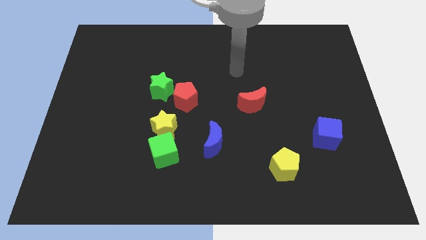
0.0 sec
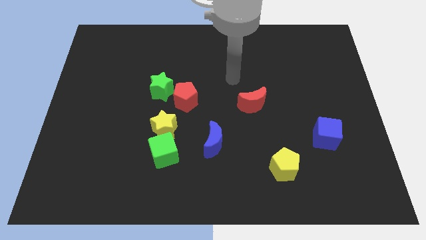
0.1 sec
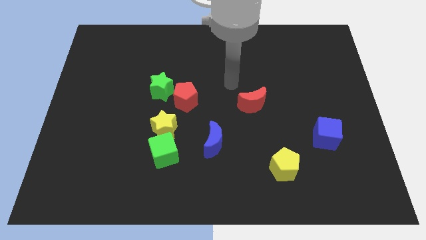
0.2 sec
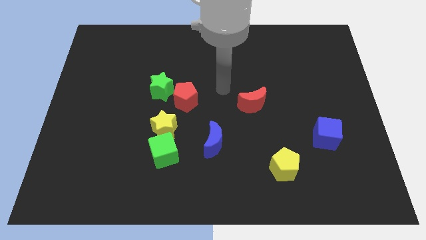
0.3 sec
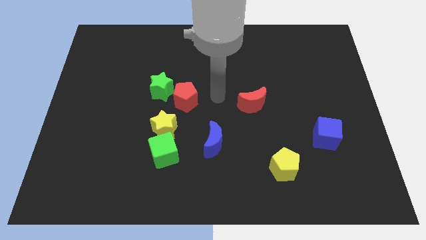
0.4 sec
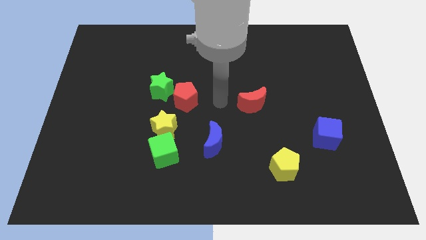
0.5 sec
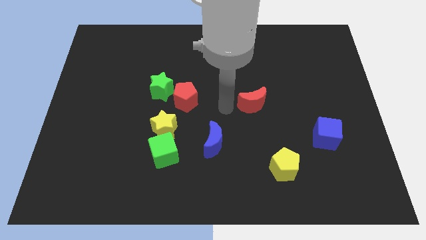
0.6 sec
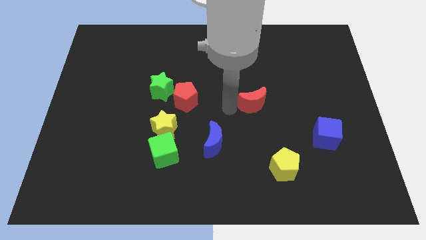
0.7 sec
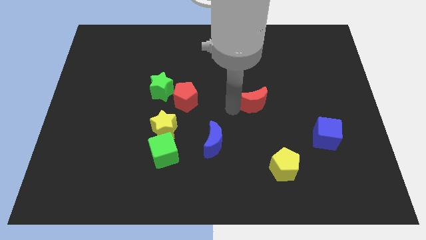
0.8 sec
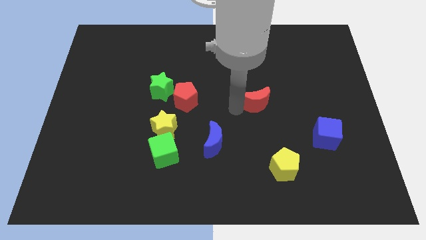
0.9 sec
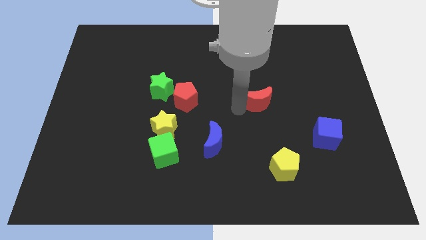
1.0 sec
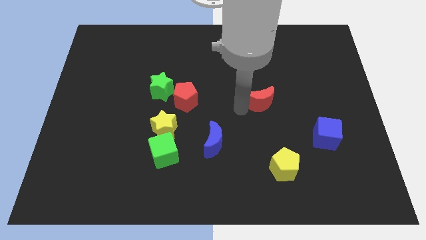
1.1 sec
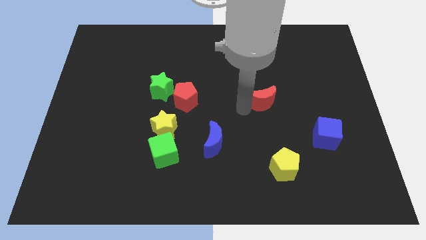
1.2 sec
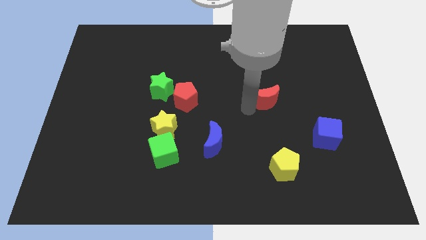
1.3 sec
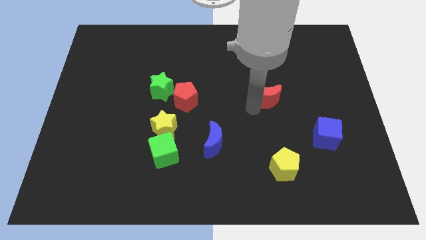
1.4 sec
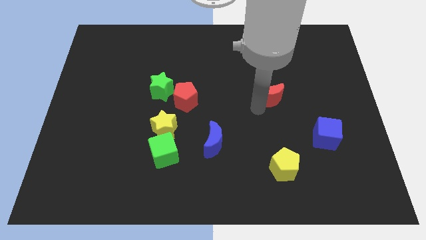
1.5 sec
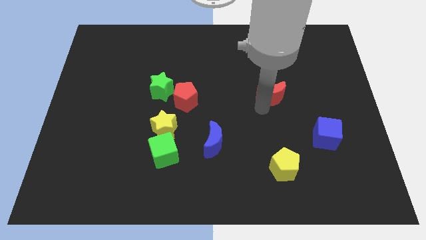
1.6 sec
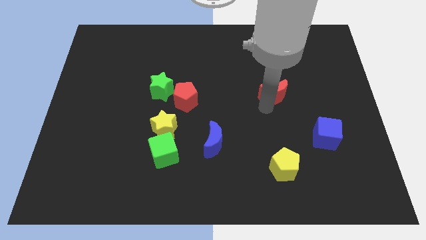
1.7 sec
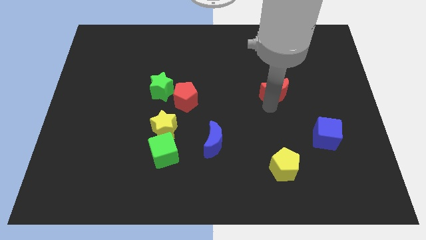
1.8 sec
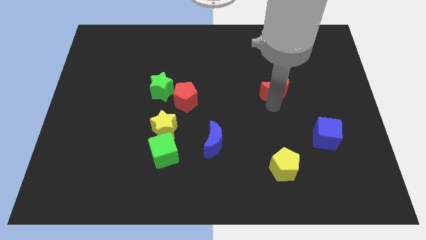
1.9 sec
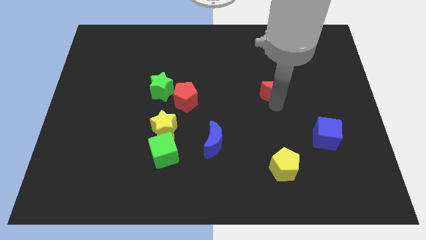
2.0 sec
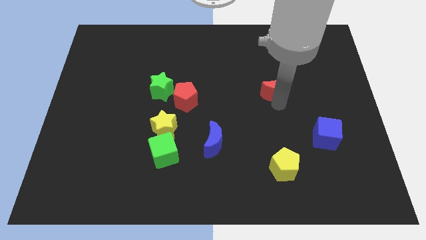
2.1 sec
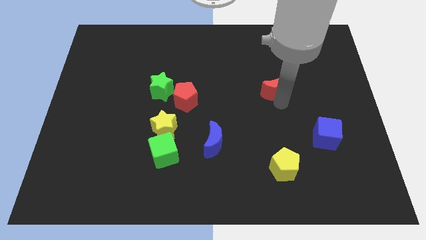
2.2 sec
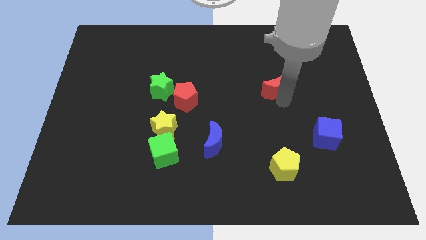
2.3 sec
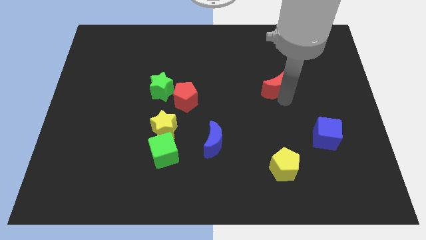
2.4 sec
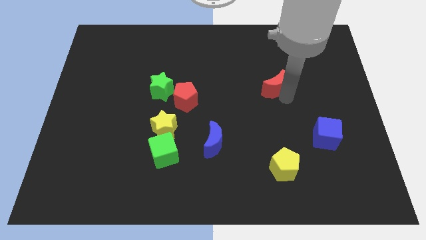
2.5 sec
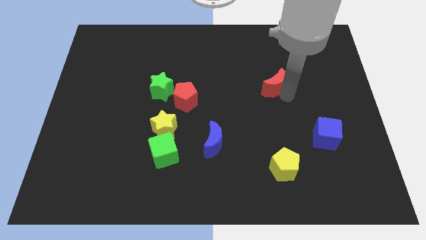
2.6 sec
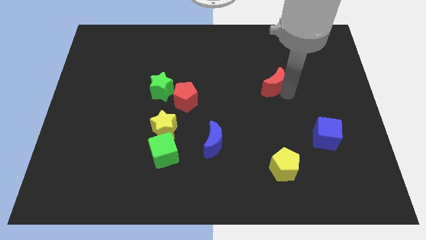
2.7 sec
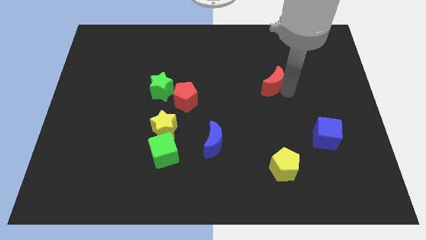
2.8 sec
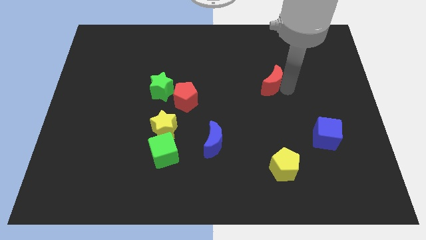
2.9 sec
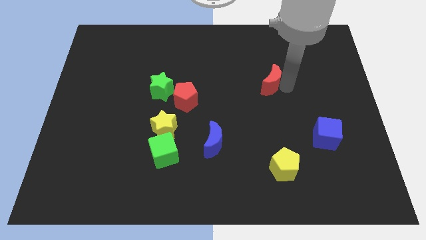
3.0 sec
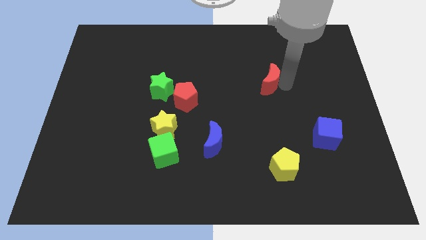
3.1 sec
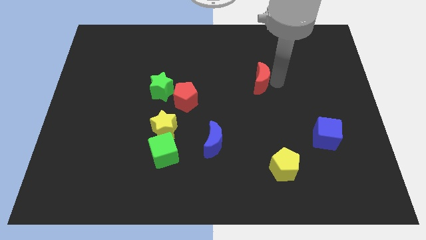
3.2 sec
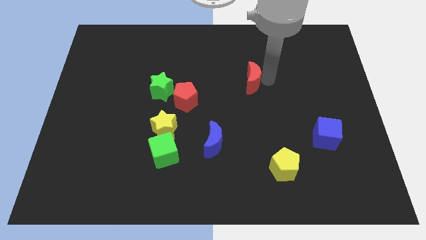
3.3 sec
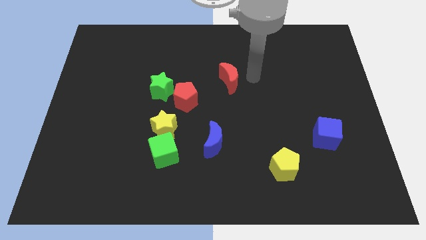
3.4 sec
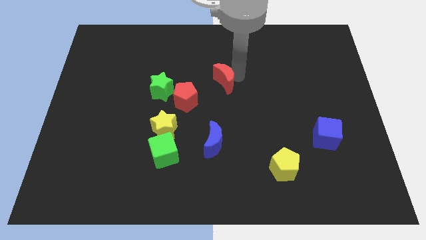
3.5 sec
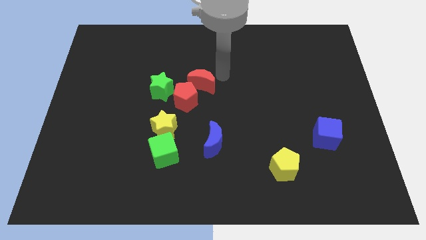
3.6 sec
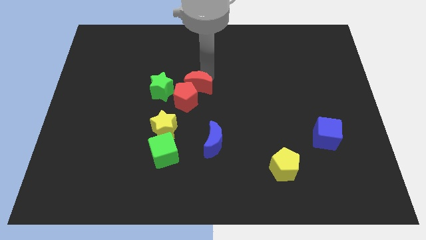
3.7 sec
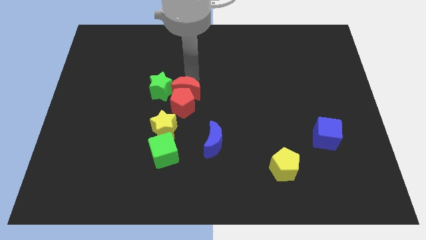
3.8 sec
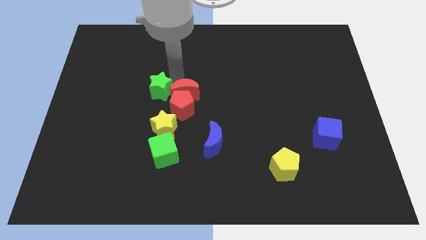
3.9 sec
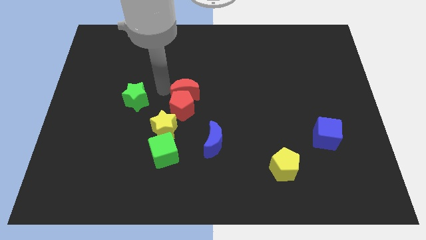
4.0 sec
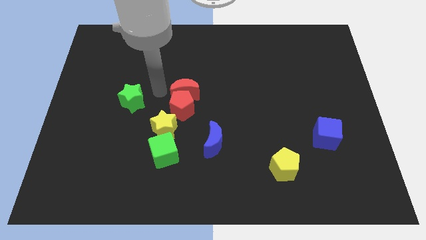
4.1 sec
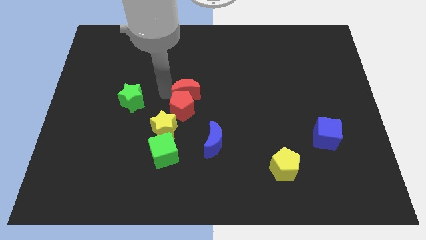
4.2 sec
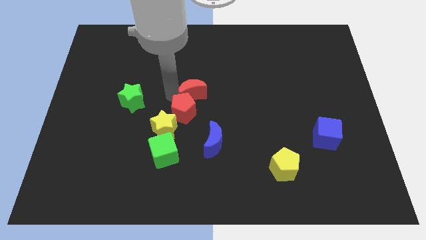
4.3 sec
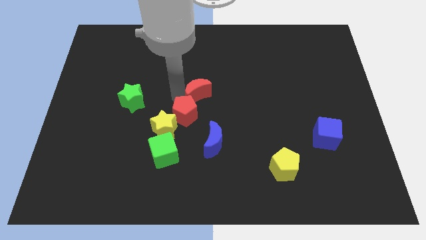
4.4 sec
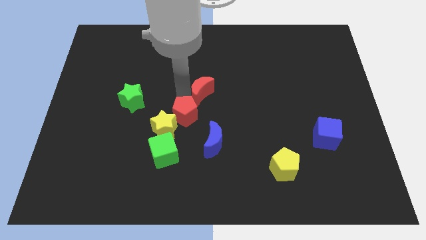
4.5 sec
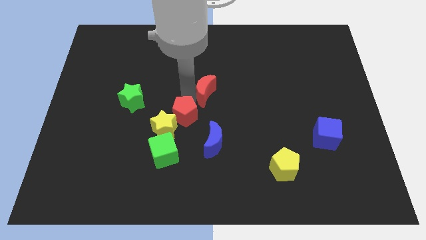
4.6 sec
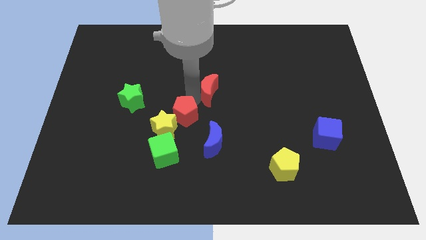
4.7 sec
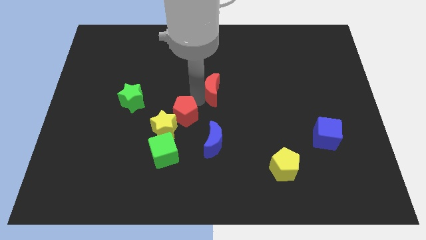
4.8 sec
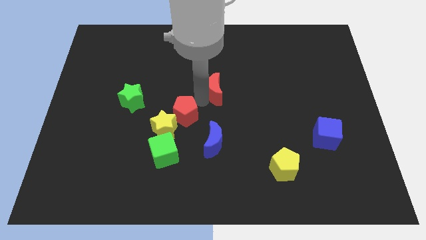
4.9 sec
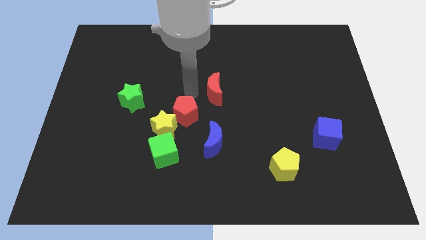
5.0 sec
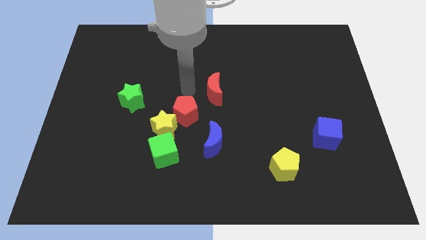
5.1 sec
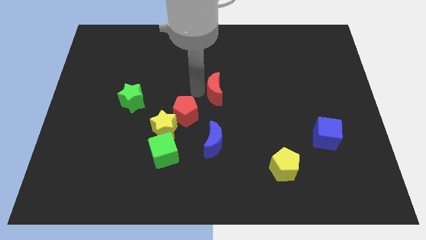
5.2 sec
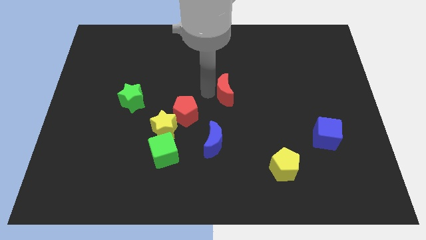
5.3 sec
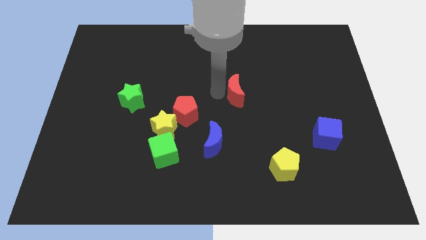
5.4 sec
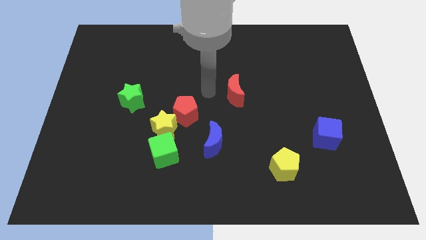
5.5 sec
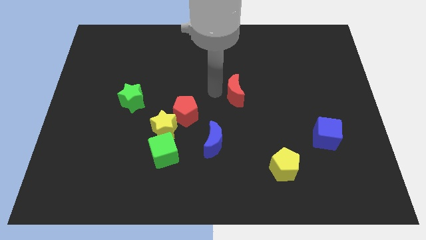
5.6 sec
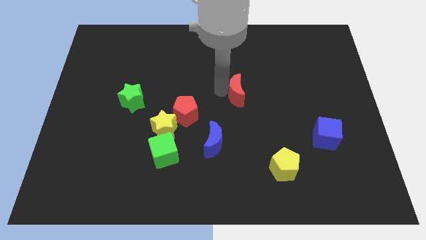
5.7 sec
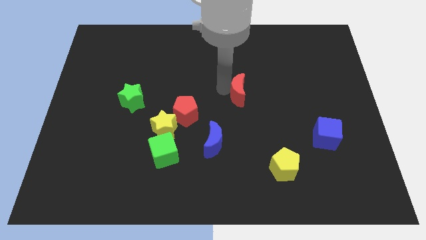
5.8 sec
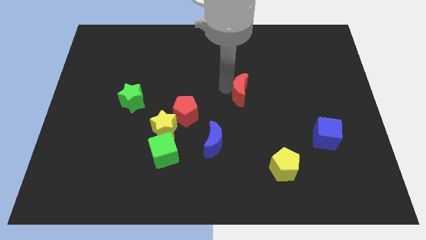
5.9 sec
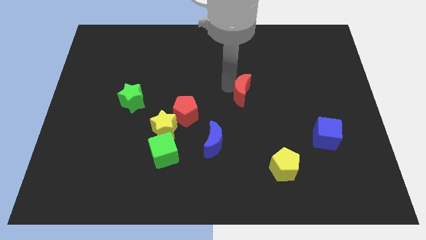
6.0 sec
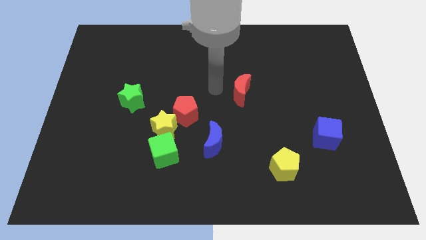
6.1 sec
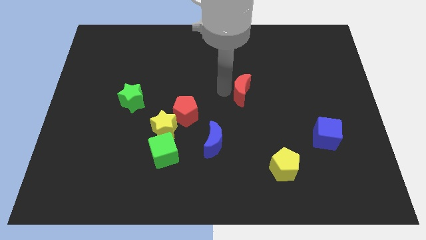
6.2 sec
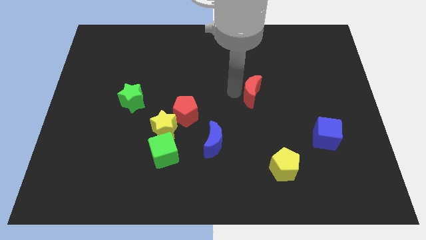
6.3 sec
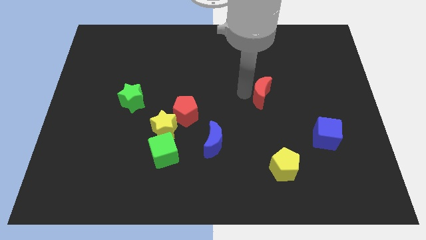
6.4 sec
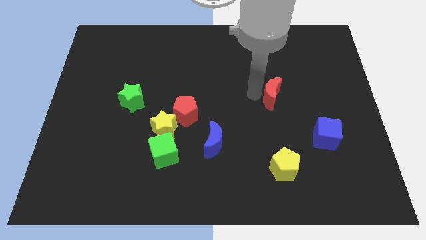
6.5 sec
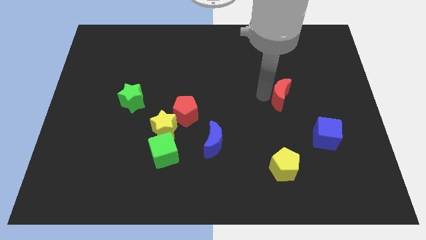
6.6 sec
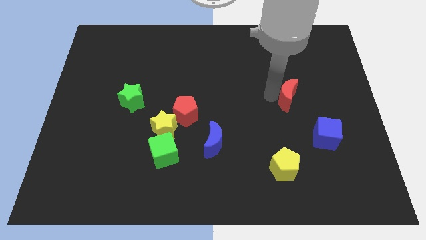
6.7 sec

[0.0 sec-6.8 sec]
push the red moon a bit to the right

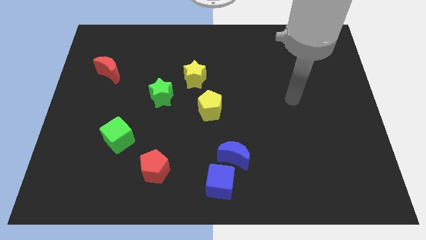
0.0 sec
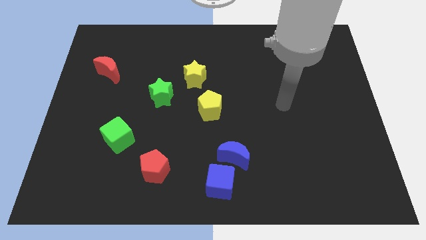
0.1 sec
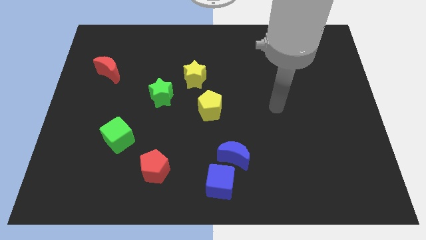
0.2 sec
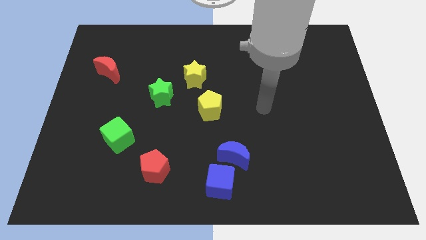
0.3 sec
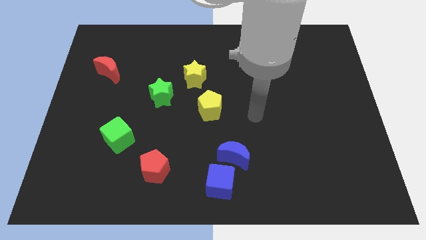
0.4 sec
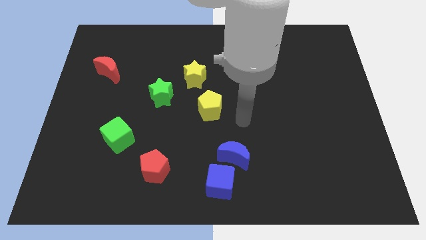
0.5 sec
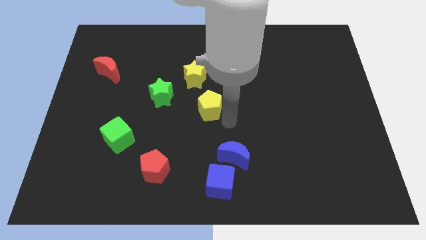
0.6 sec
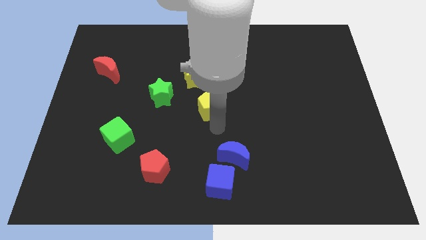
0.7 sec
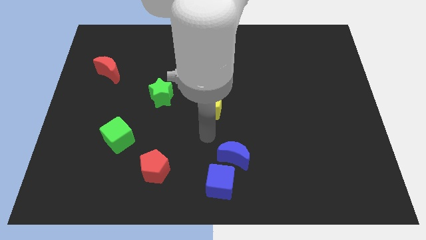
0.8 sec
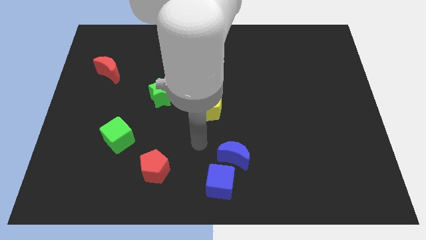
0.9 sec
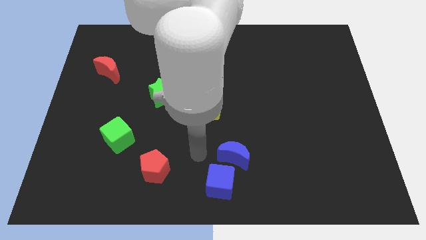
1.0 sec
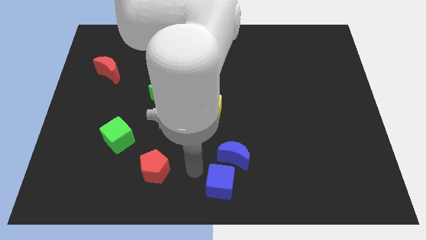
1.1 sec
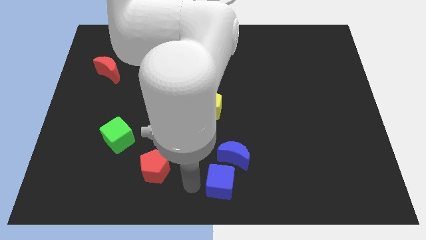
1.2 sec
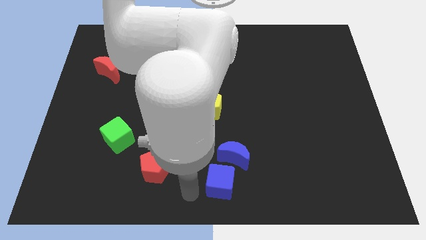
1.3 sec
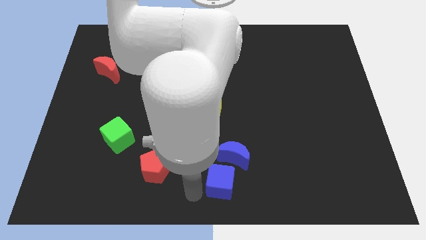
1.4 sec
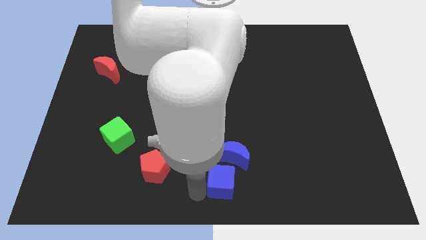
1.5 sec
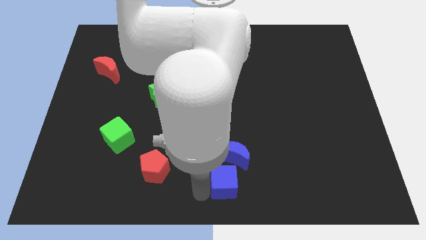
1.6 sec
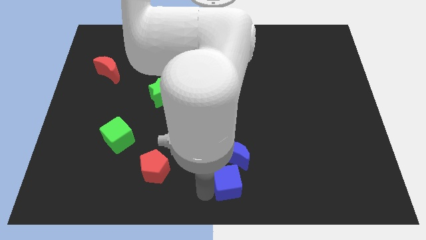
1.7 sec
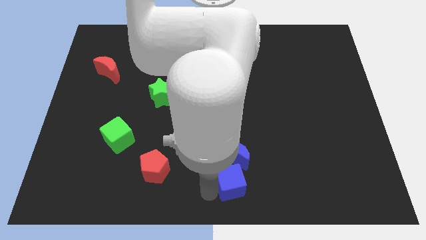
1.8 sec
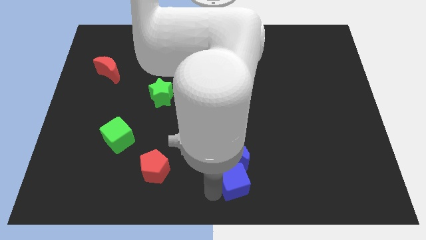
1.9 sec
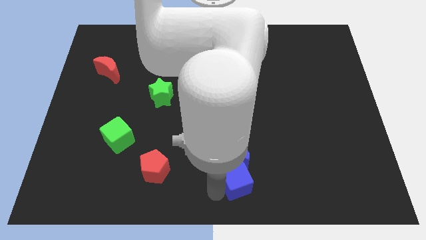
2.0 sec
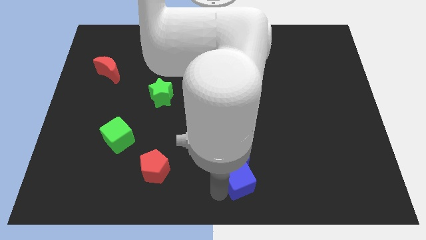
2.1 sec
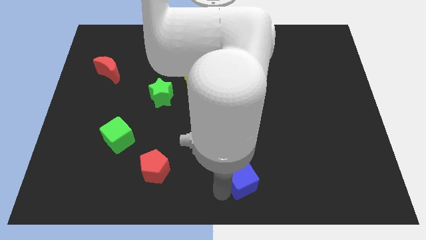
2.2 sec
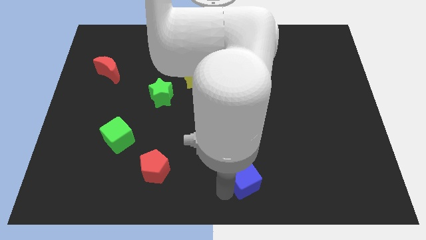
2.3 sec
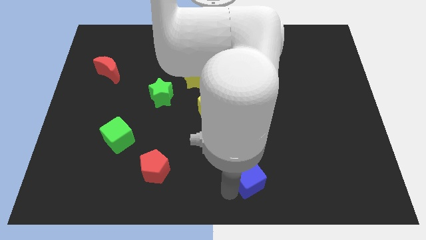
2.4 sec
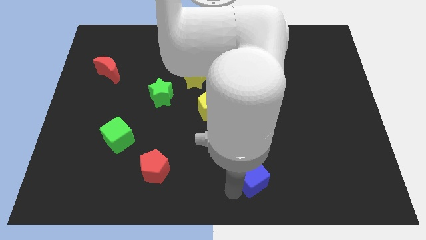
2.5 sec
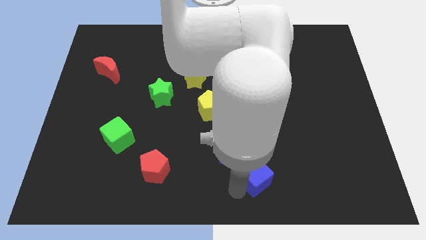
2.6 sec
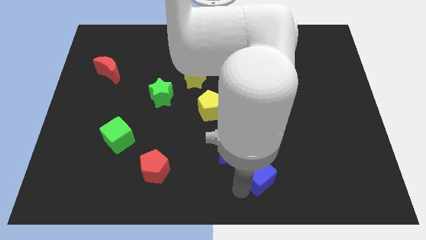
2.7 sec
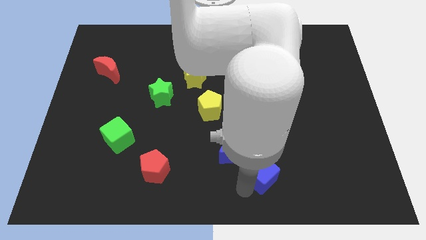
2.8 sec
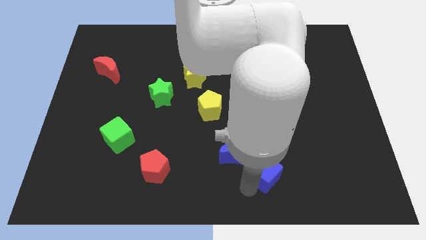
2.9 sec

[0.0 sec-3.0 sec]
move the blue cube diagonally up and right a little bit
